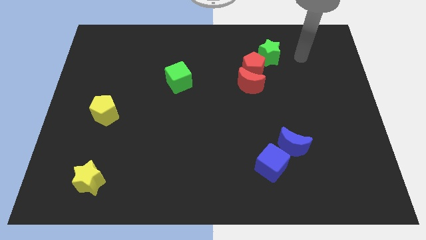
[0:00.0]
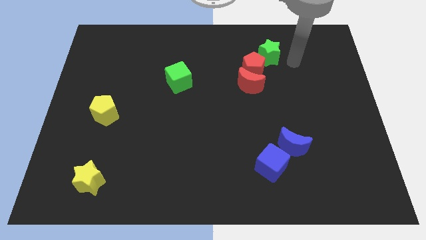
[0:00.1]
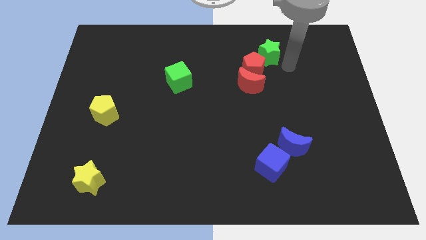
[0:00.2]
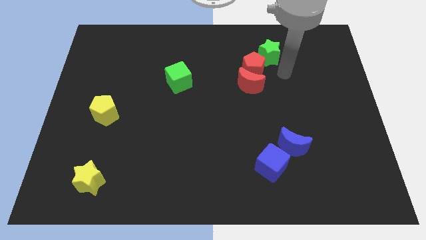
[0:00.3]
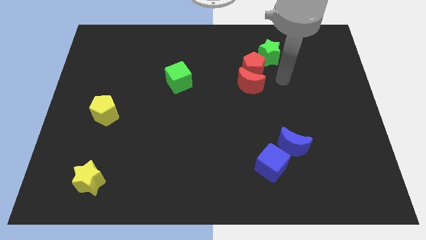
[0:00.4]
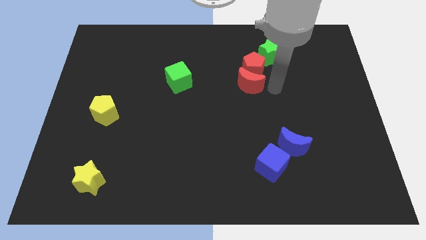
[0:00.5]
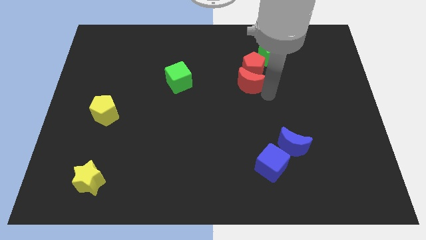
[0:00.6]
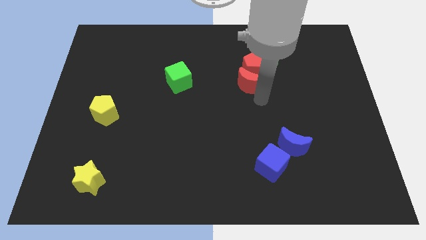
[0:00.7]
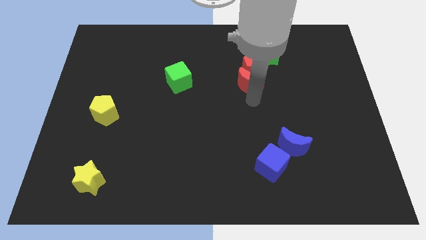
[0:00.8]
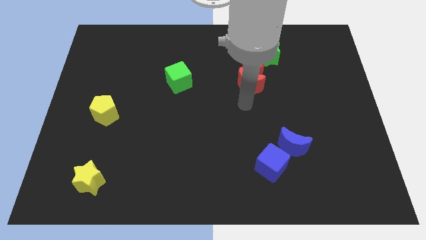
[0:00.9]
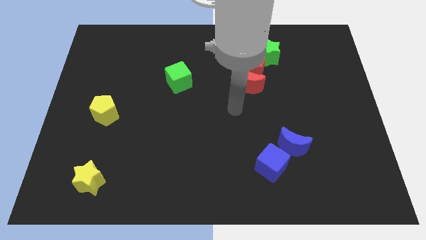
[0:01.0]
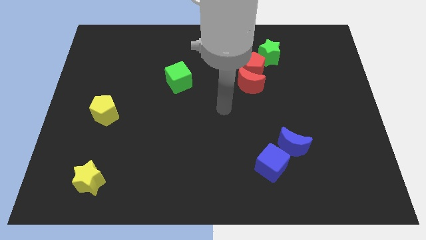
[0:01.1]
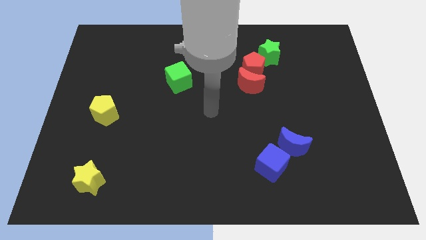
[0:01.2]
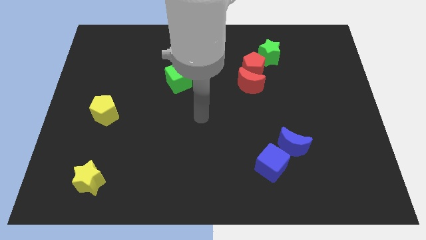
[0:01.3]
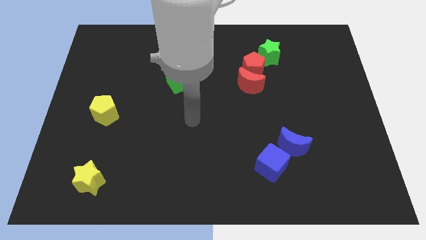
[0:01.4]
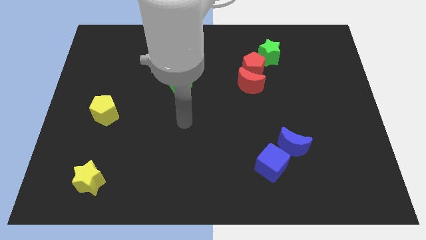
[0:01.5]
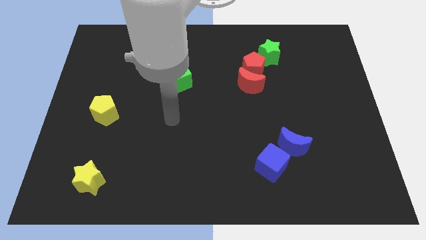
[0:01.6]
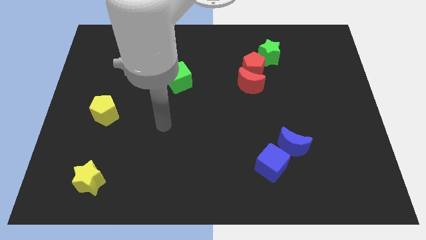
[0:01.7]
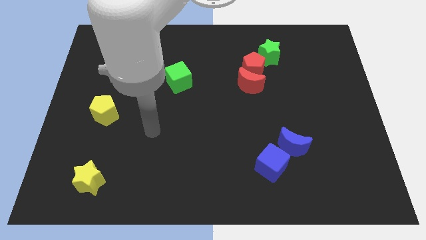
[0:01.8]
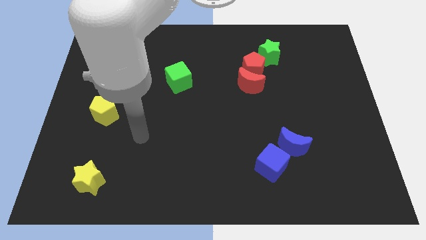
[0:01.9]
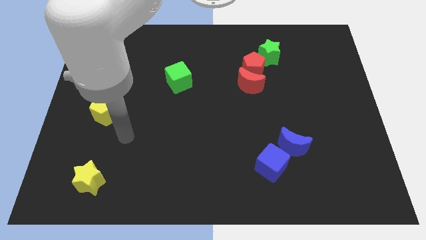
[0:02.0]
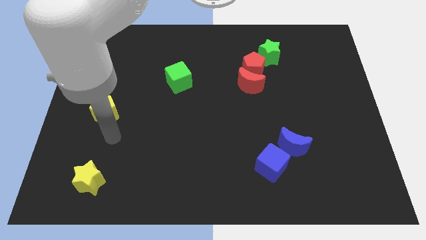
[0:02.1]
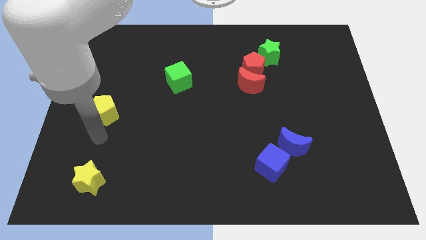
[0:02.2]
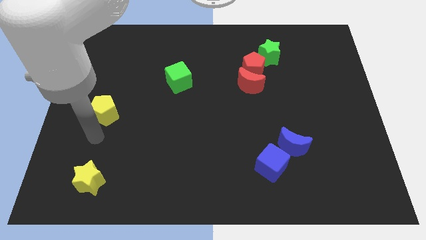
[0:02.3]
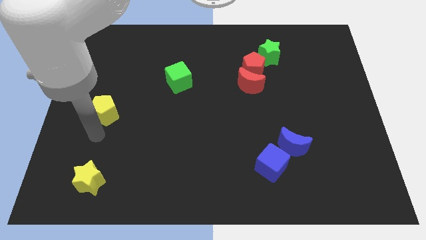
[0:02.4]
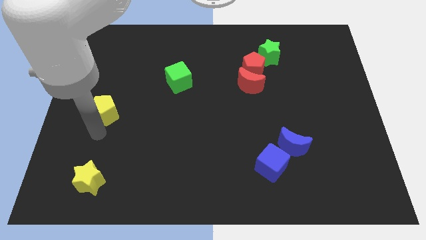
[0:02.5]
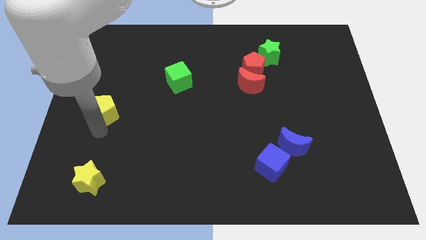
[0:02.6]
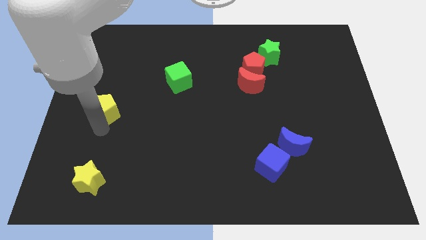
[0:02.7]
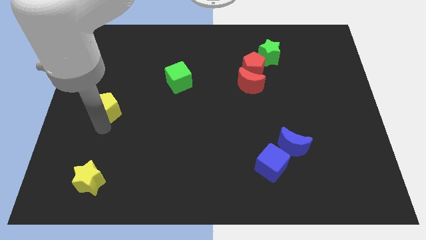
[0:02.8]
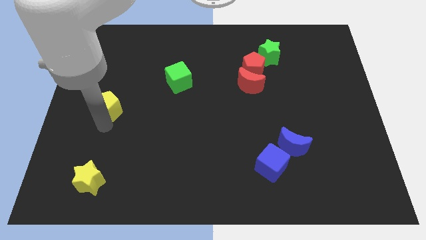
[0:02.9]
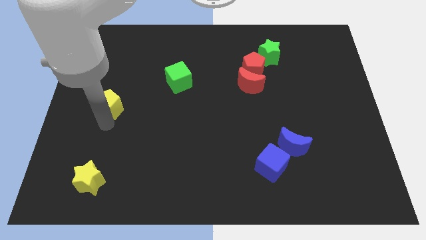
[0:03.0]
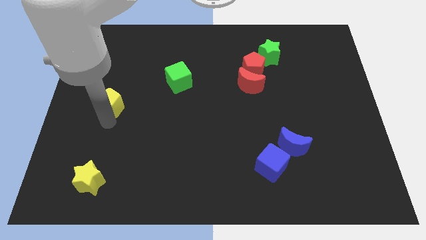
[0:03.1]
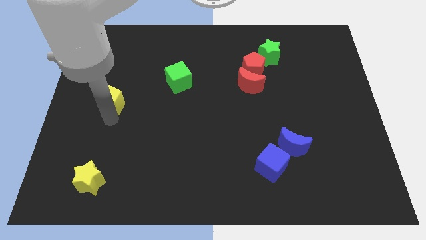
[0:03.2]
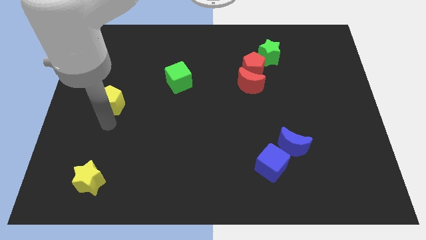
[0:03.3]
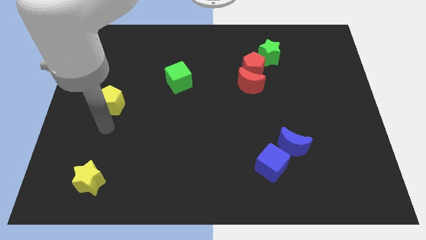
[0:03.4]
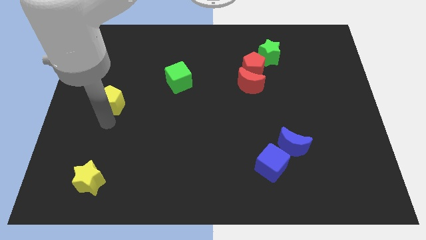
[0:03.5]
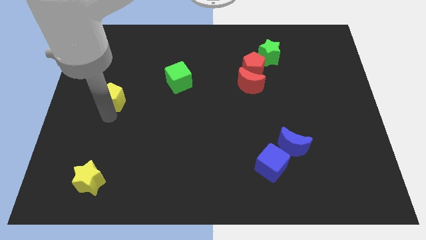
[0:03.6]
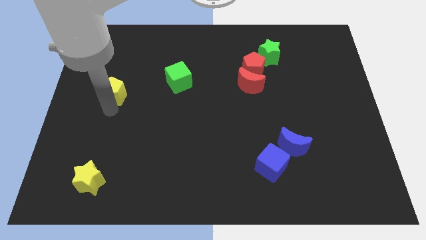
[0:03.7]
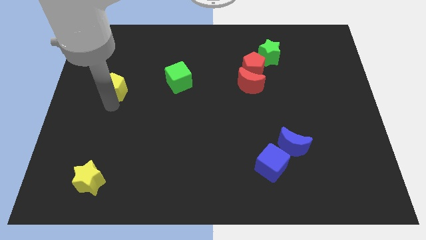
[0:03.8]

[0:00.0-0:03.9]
push the yellow pentagon a bit upwards

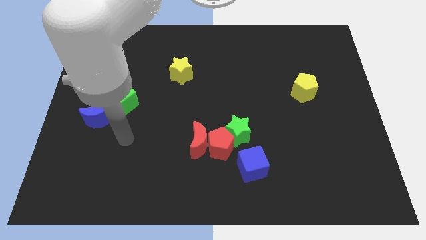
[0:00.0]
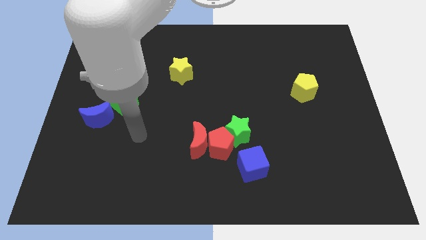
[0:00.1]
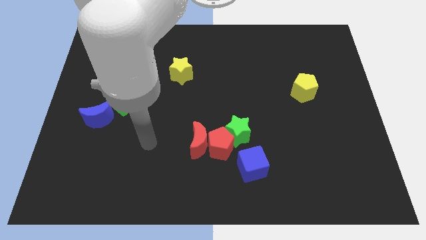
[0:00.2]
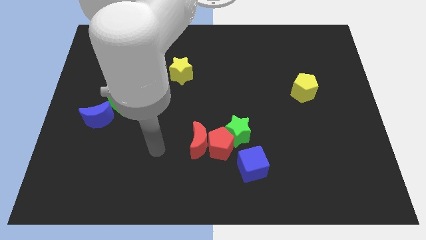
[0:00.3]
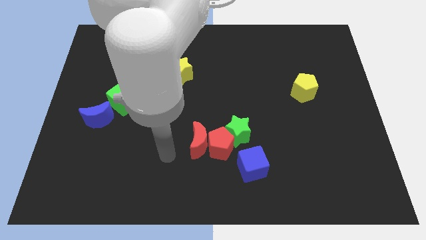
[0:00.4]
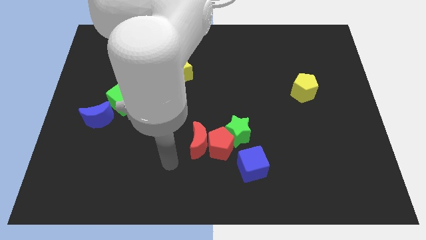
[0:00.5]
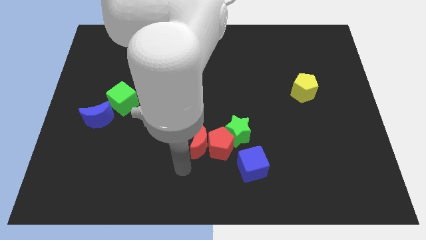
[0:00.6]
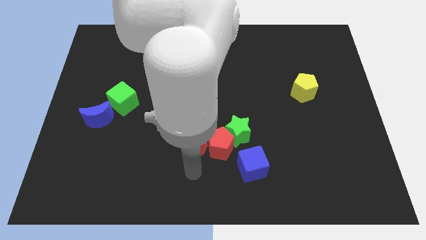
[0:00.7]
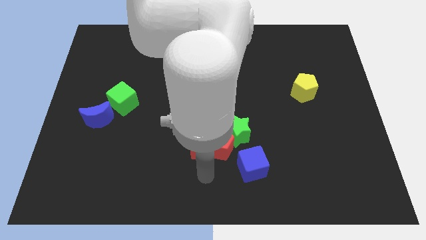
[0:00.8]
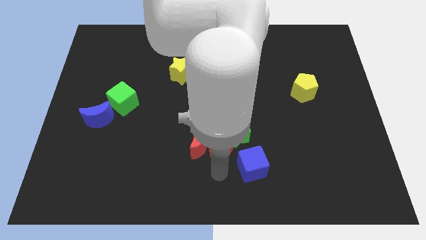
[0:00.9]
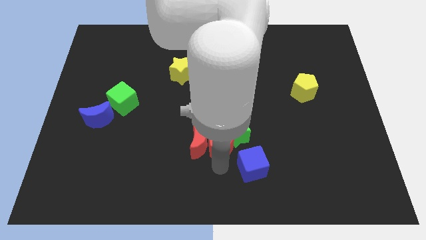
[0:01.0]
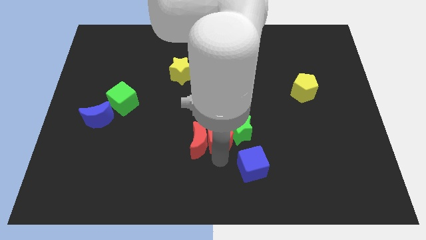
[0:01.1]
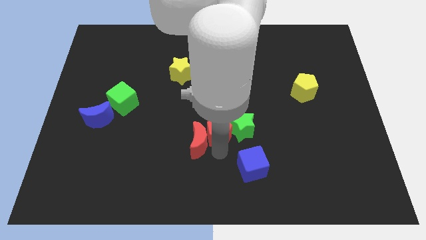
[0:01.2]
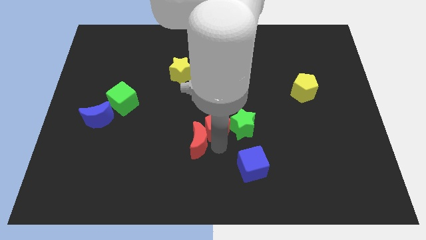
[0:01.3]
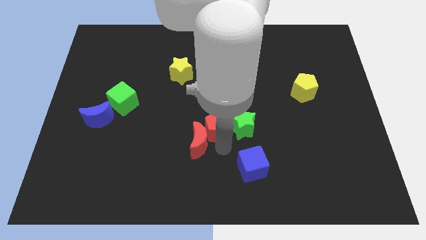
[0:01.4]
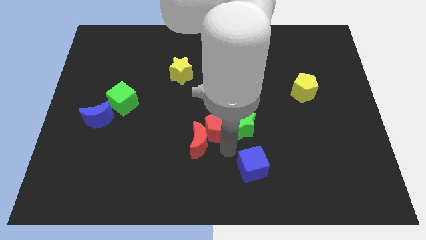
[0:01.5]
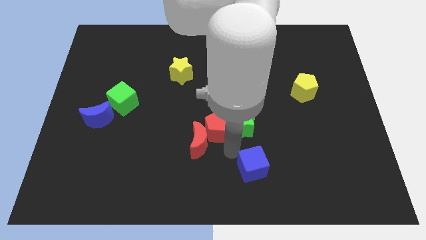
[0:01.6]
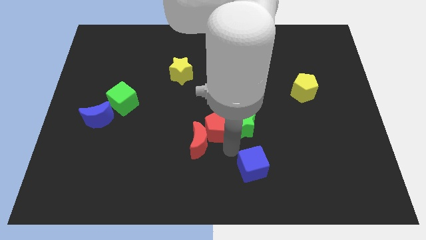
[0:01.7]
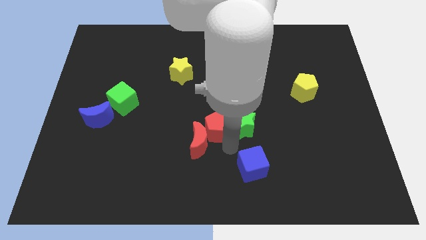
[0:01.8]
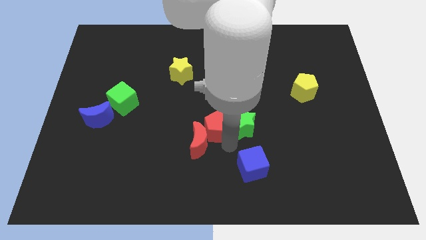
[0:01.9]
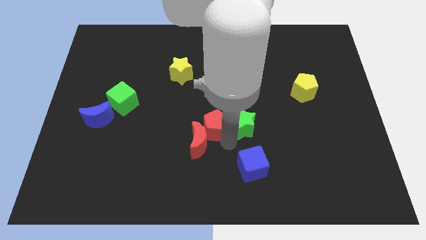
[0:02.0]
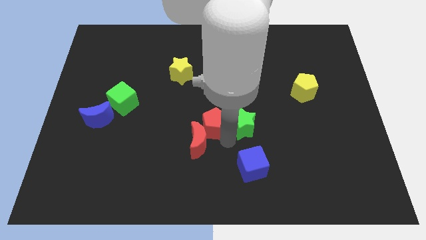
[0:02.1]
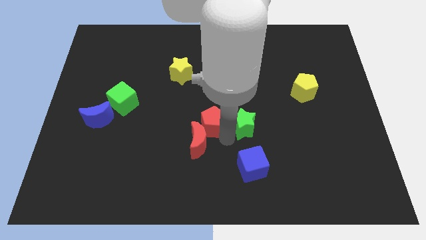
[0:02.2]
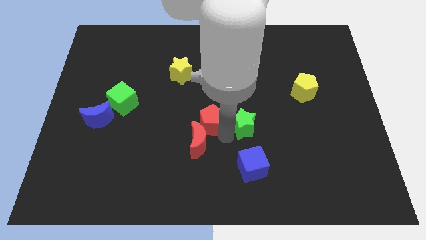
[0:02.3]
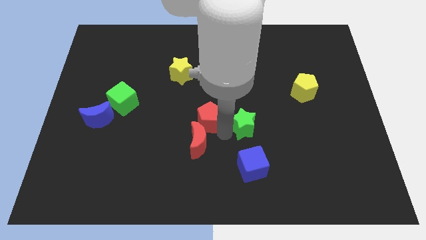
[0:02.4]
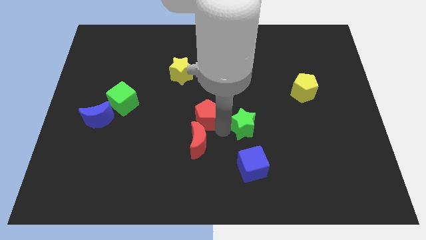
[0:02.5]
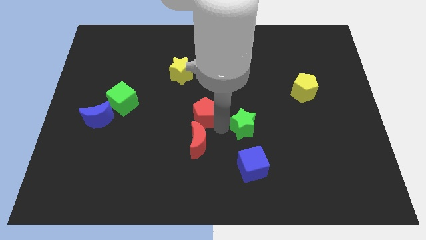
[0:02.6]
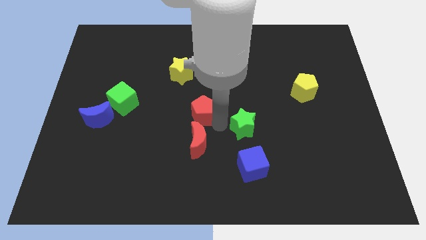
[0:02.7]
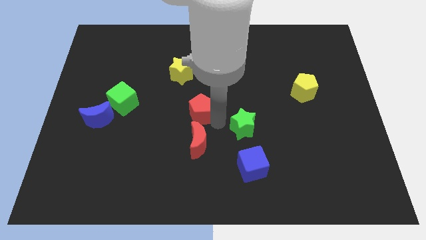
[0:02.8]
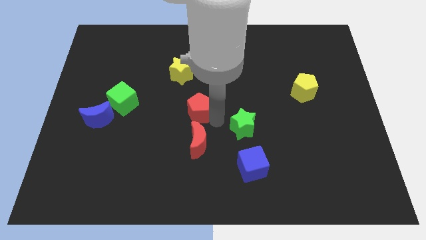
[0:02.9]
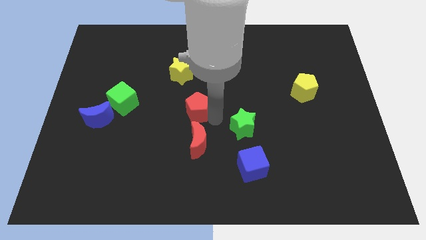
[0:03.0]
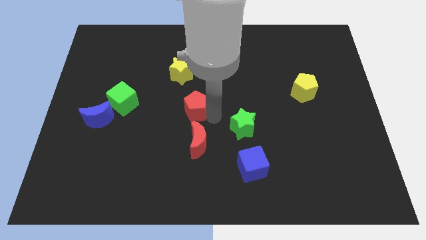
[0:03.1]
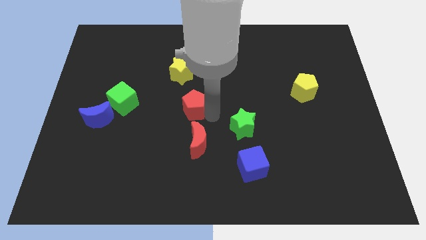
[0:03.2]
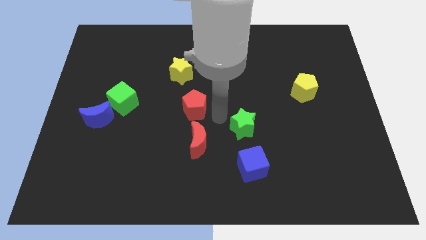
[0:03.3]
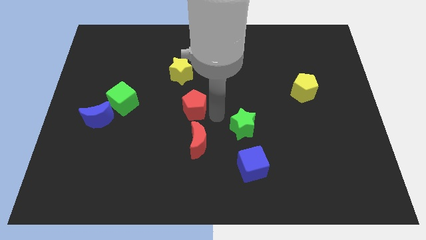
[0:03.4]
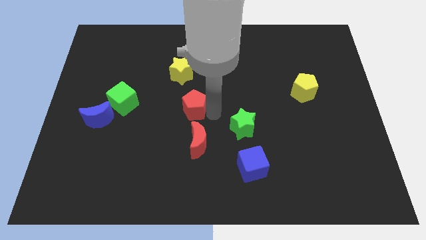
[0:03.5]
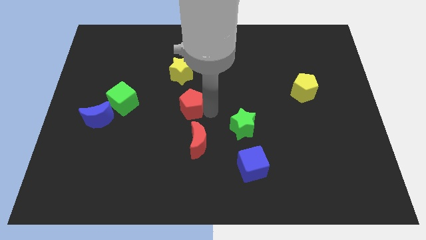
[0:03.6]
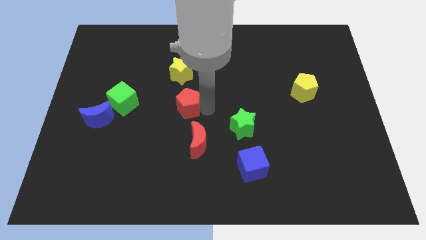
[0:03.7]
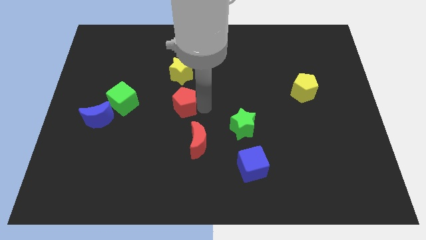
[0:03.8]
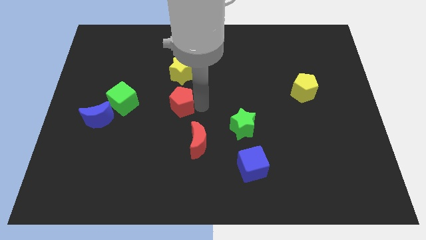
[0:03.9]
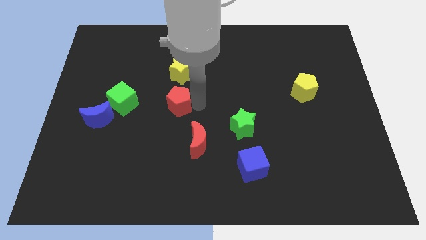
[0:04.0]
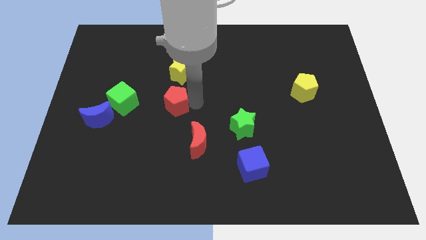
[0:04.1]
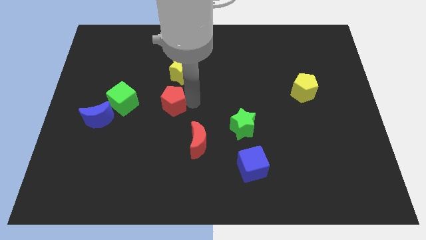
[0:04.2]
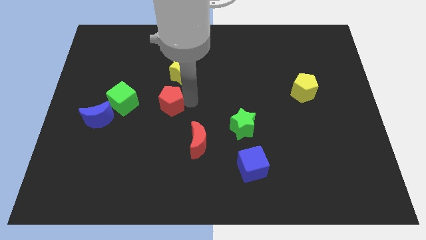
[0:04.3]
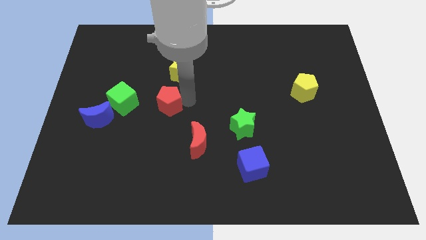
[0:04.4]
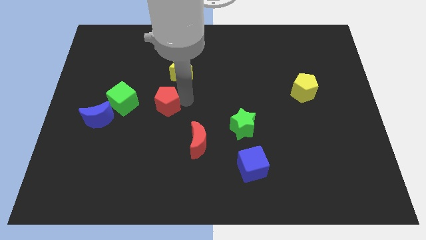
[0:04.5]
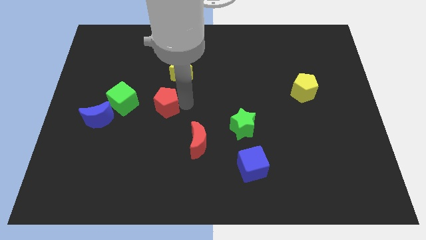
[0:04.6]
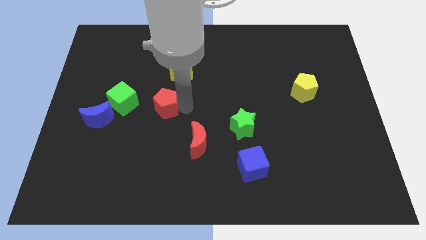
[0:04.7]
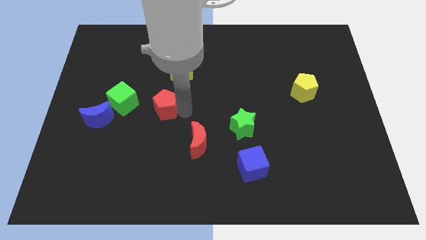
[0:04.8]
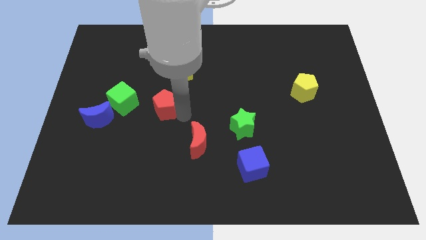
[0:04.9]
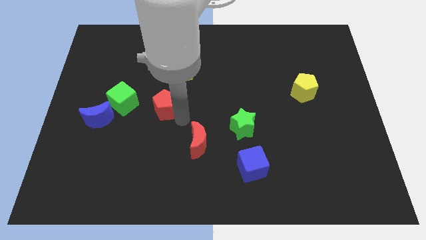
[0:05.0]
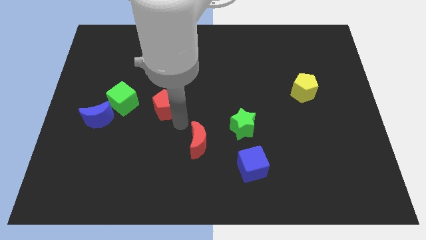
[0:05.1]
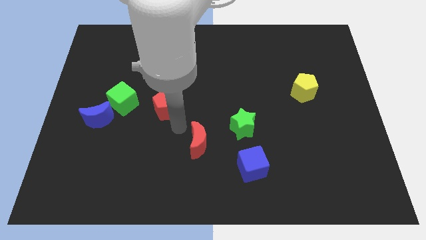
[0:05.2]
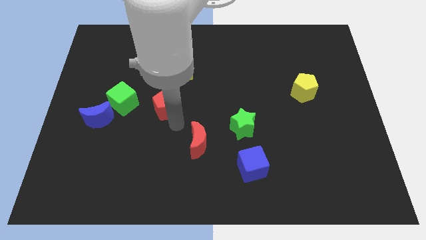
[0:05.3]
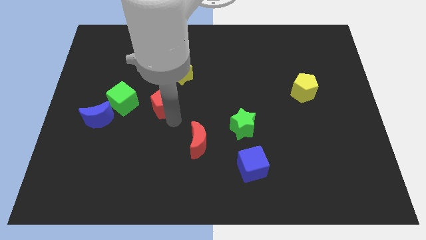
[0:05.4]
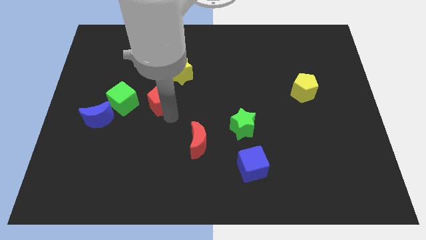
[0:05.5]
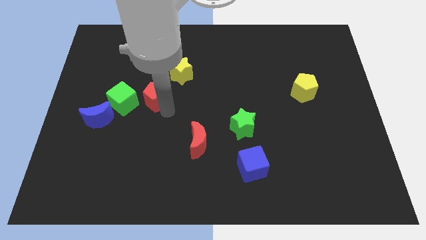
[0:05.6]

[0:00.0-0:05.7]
push the red pentagon up and then left
